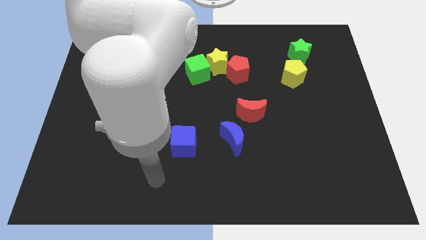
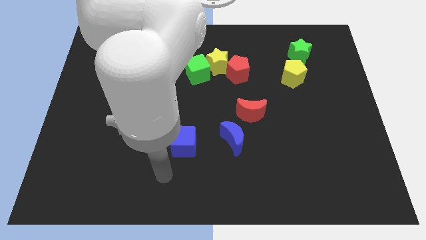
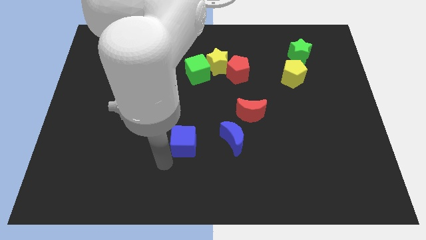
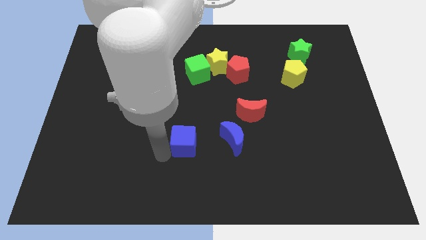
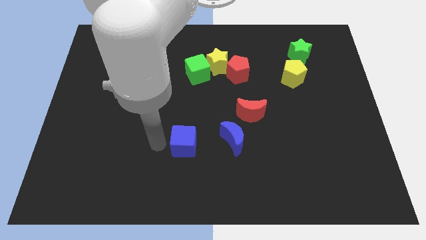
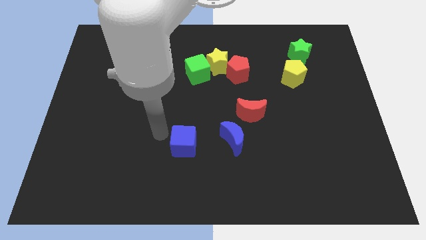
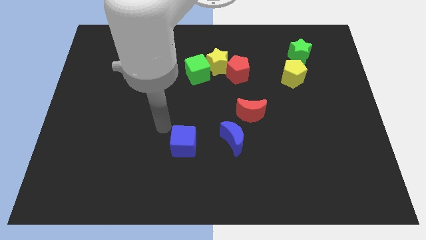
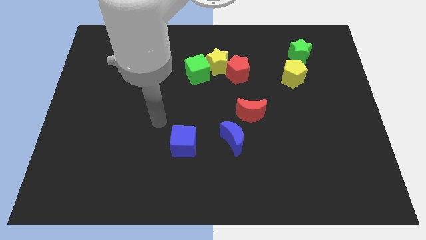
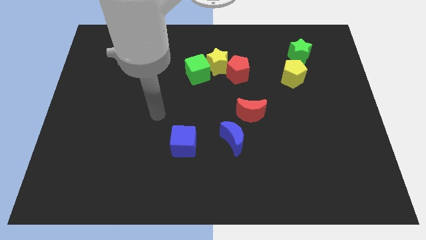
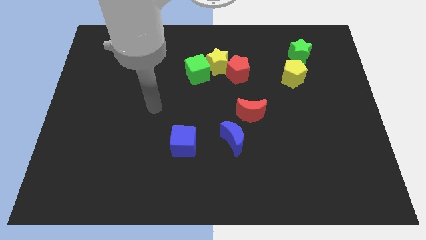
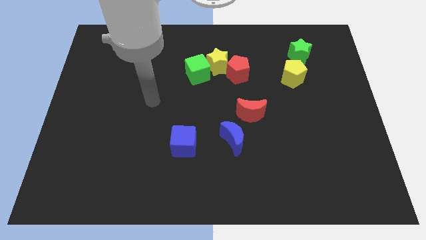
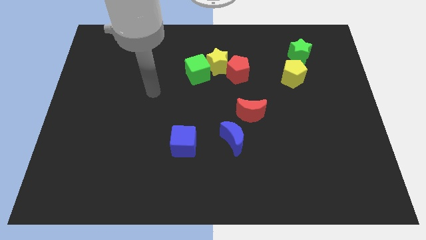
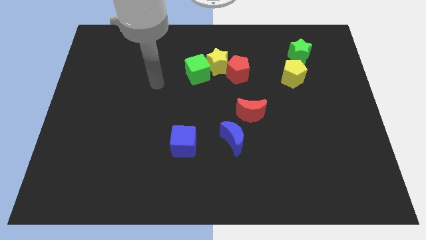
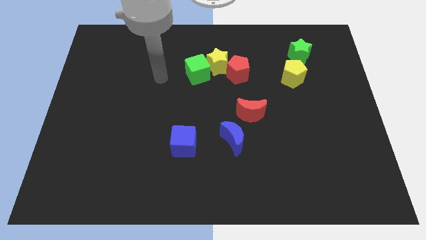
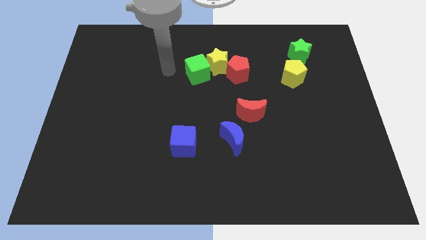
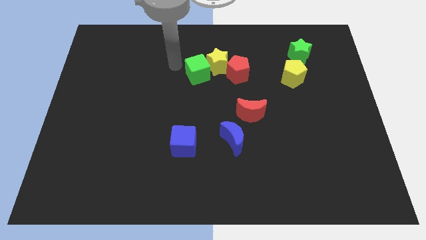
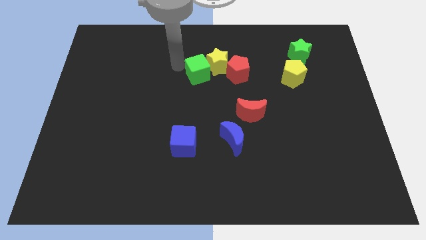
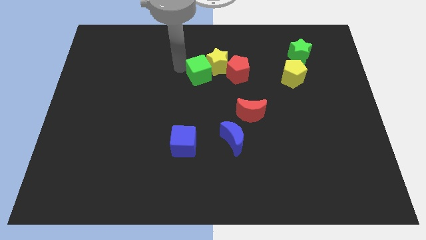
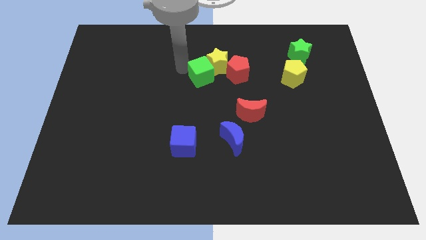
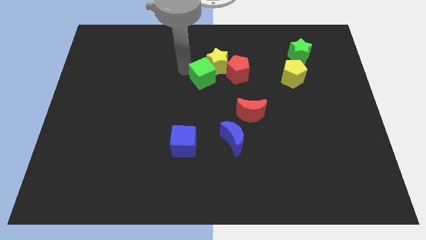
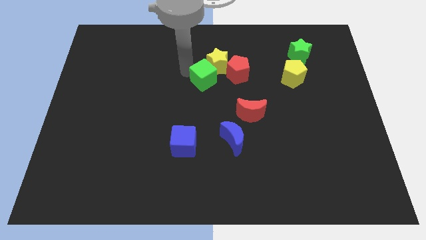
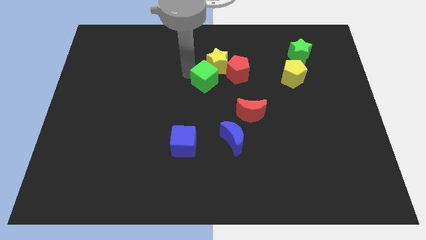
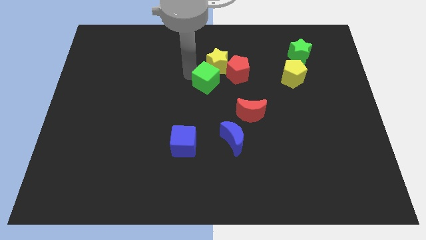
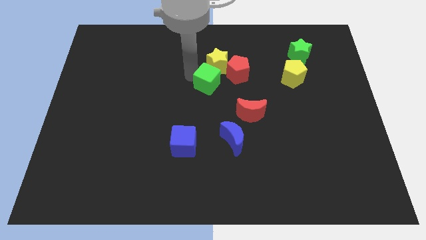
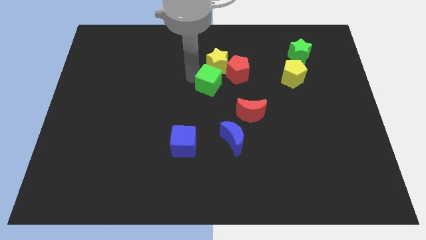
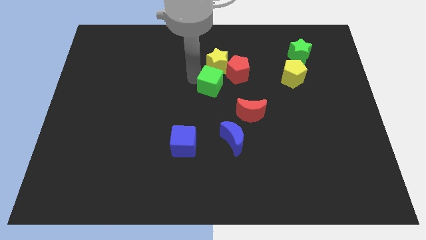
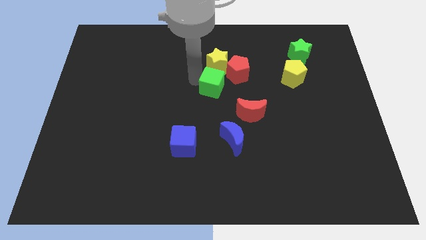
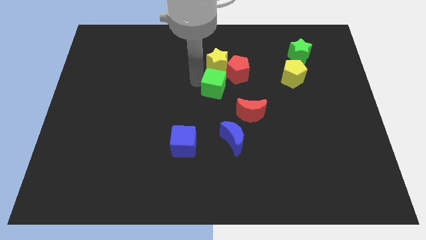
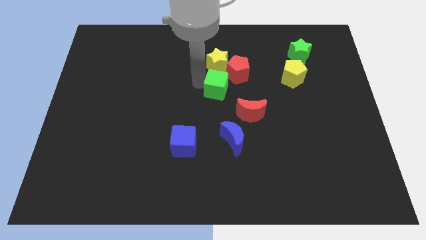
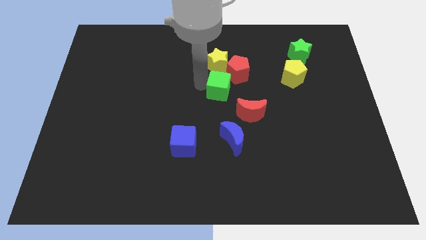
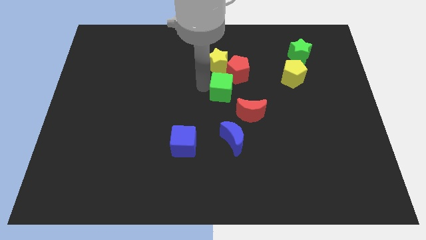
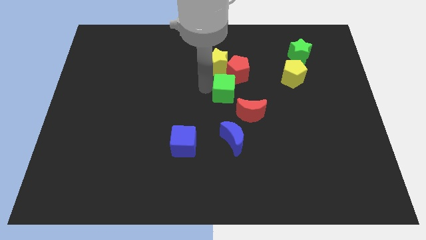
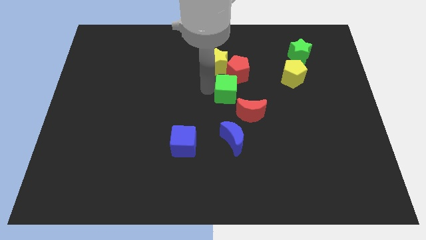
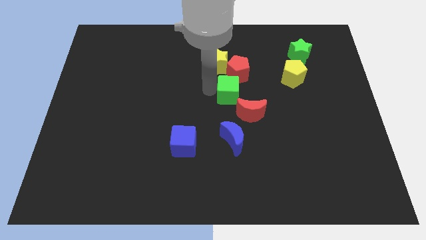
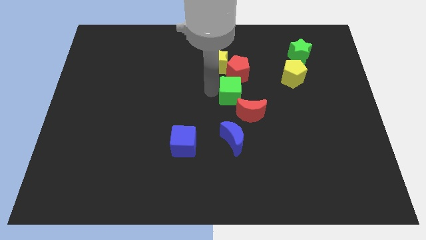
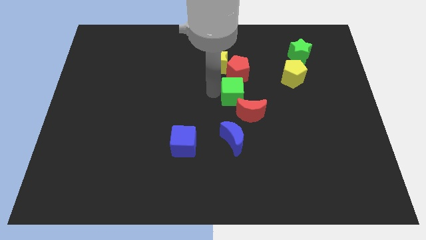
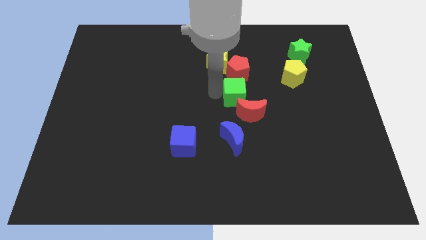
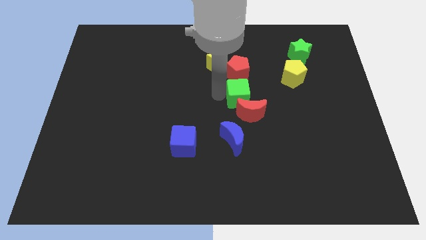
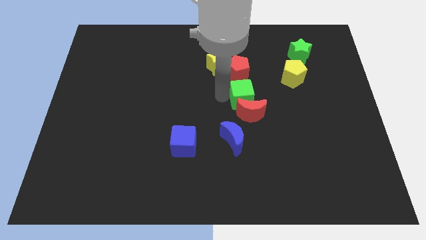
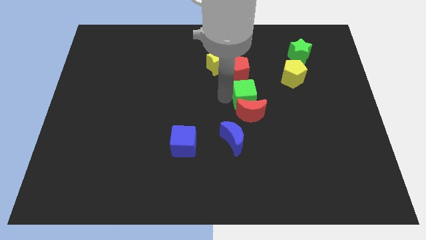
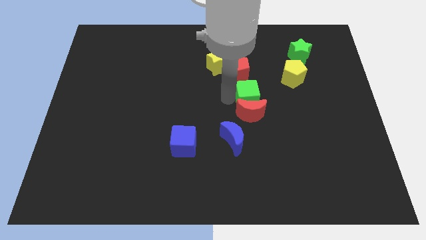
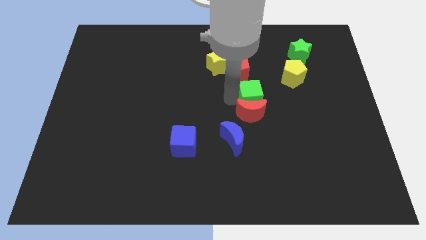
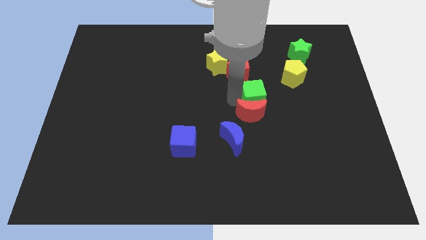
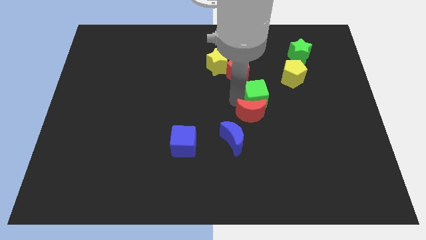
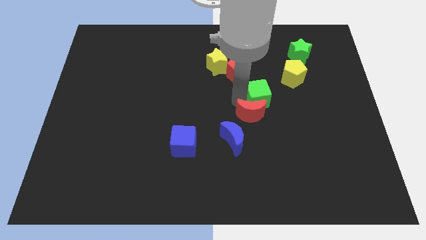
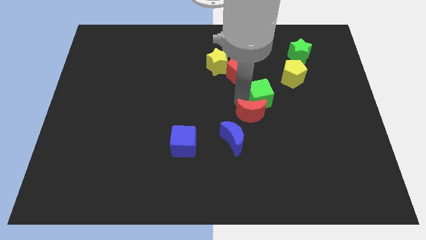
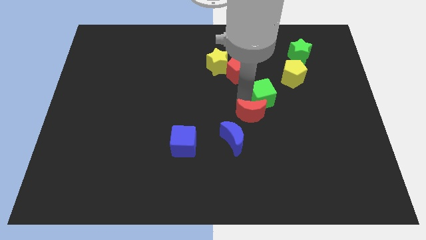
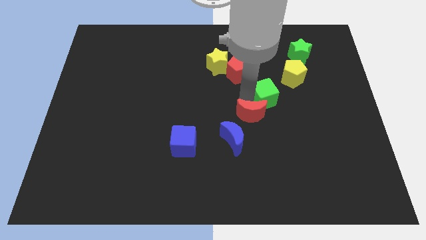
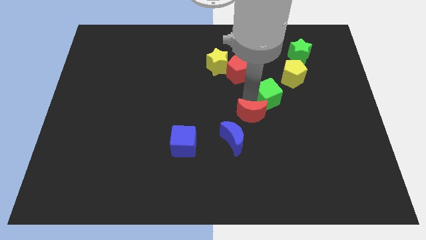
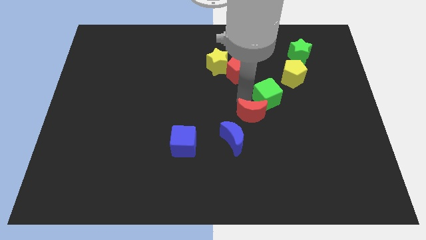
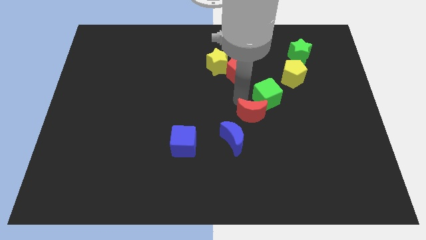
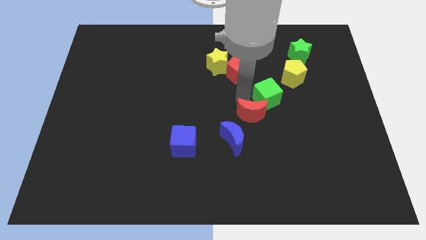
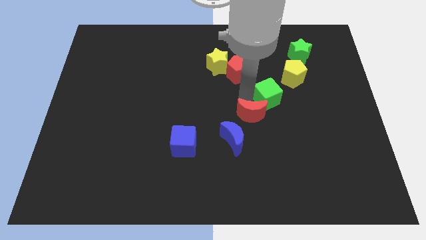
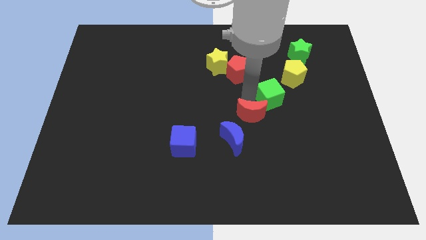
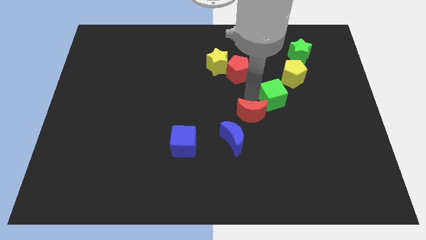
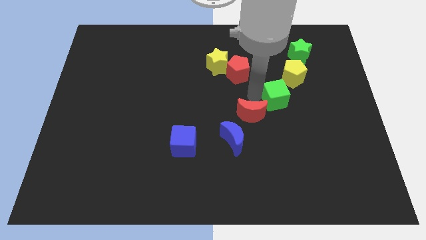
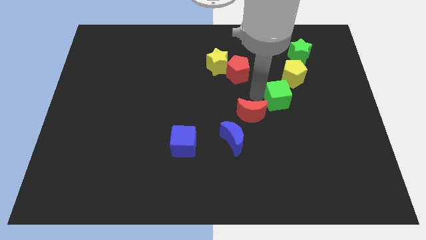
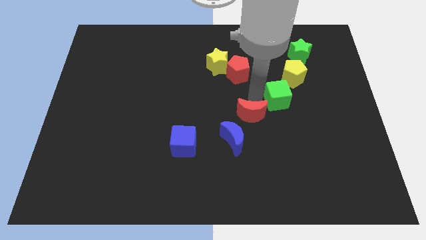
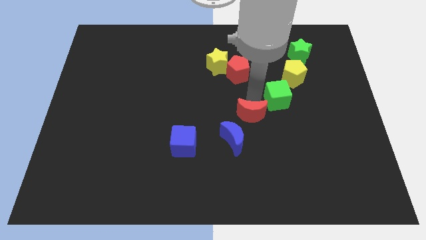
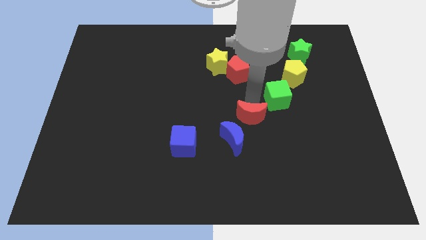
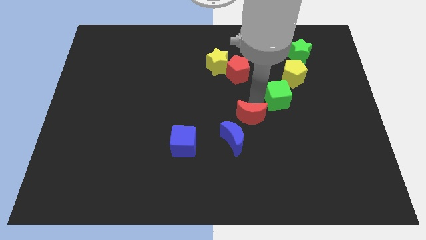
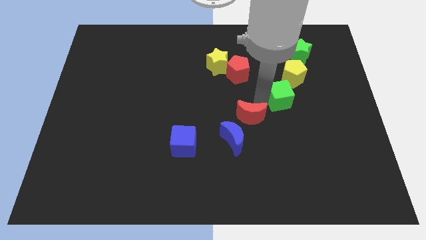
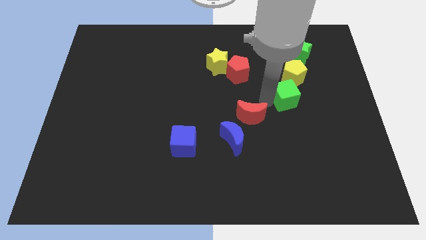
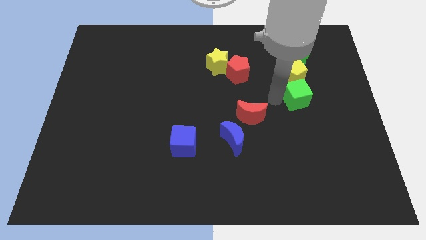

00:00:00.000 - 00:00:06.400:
move the green cube diagonally down and to the right of the yellow pentagon
